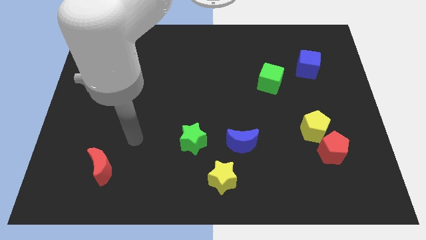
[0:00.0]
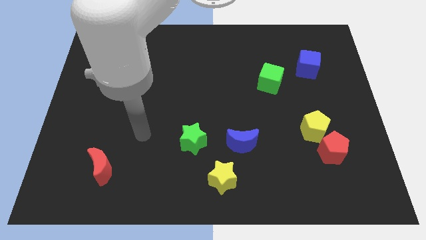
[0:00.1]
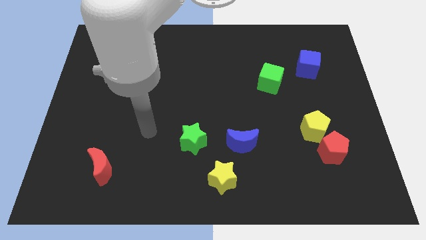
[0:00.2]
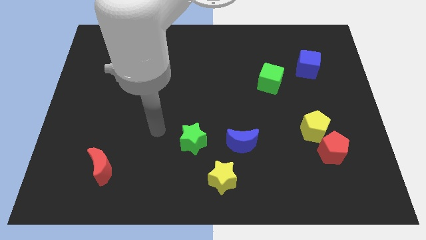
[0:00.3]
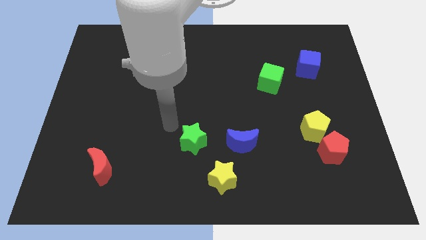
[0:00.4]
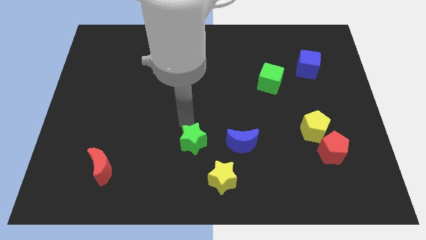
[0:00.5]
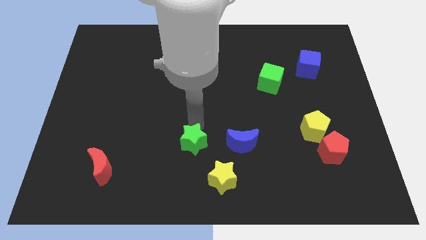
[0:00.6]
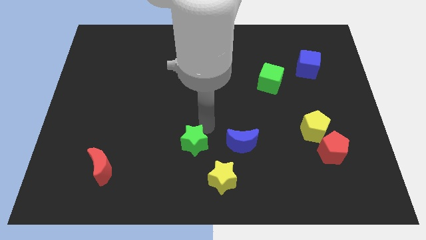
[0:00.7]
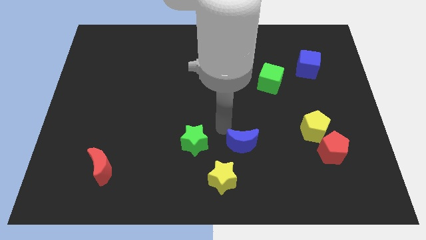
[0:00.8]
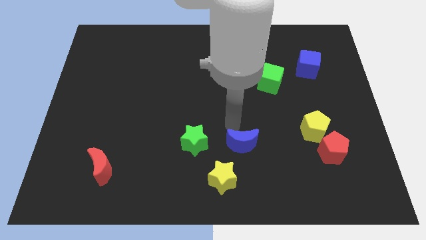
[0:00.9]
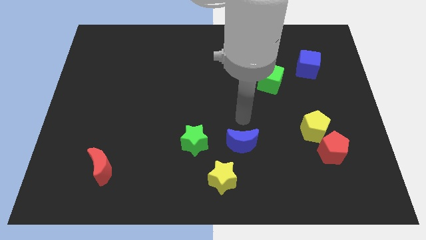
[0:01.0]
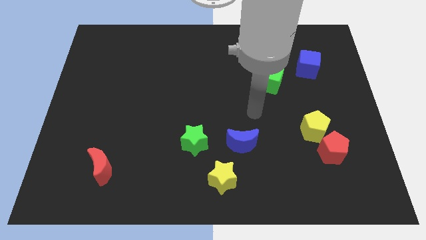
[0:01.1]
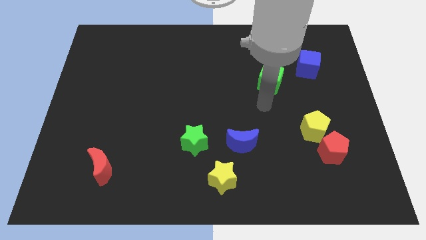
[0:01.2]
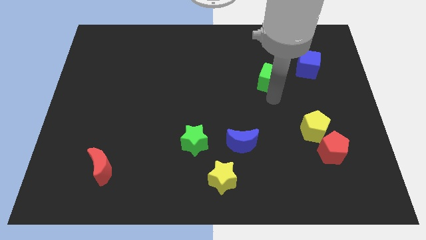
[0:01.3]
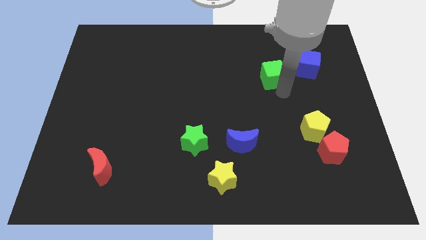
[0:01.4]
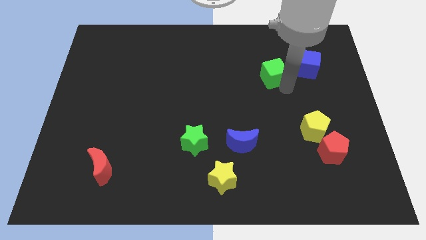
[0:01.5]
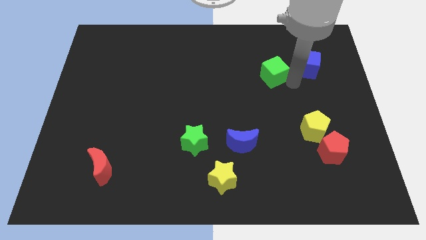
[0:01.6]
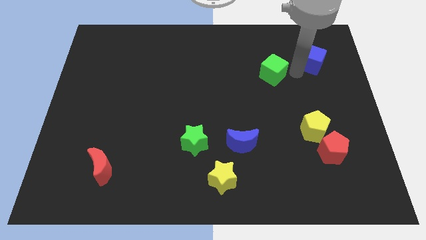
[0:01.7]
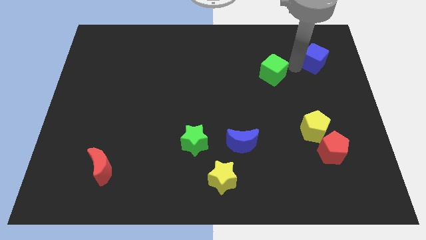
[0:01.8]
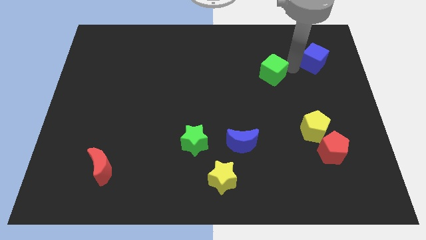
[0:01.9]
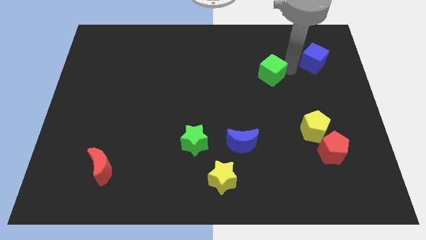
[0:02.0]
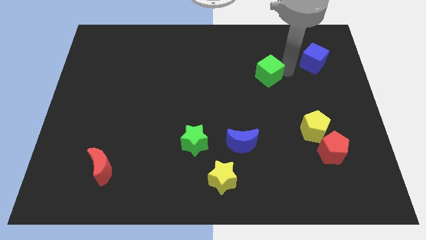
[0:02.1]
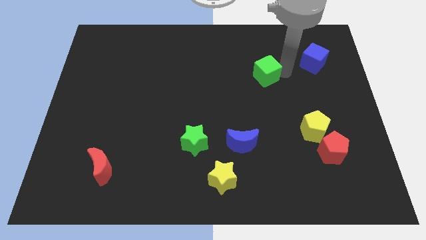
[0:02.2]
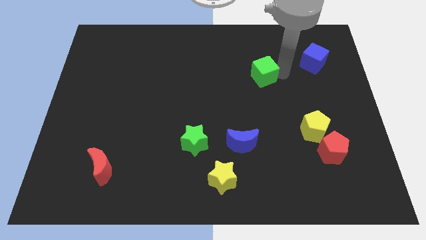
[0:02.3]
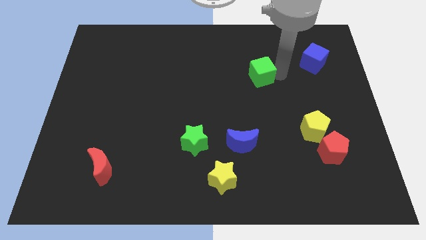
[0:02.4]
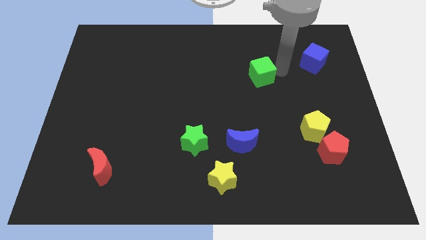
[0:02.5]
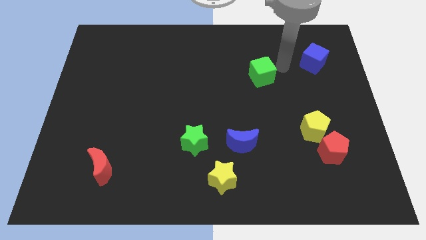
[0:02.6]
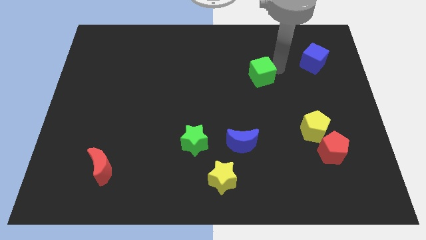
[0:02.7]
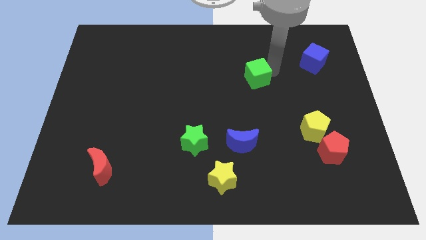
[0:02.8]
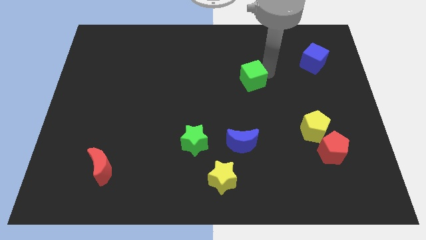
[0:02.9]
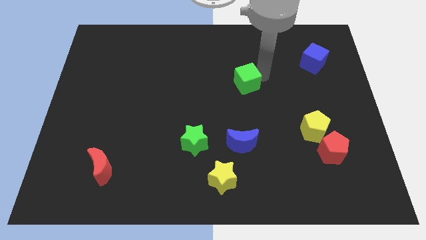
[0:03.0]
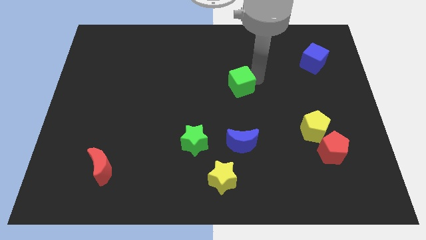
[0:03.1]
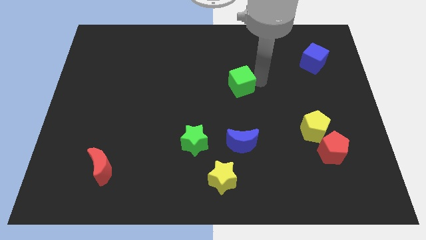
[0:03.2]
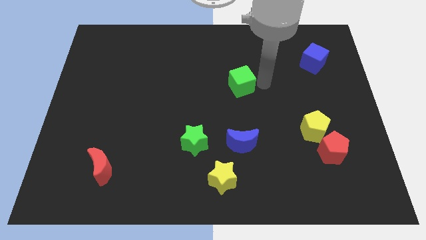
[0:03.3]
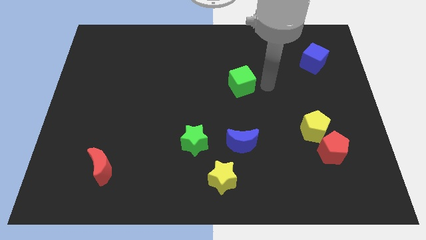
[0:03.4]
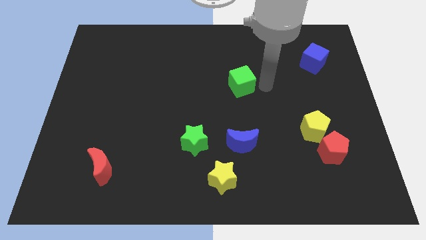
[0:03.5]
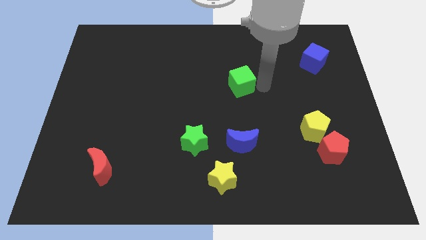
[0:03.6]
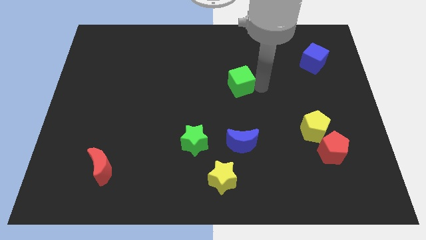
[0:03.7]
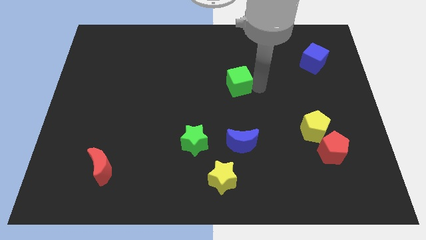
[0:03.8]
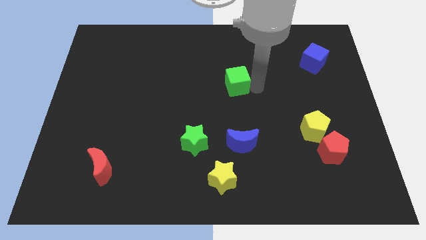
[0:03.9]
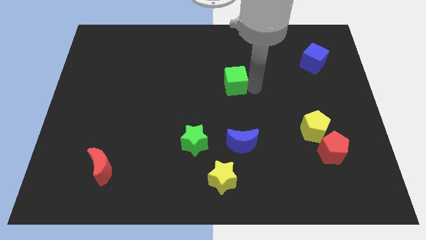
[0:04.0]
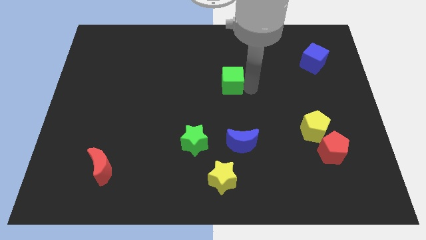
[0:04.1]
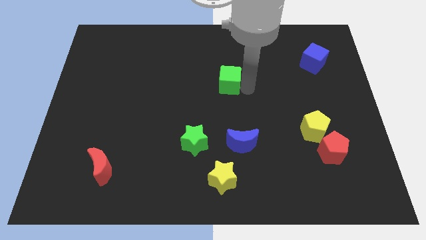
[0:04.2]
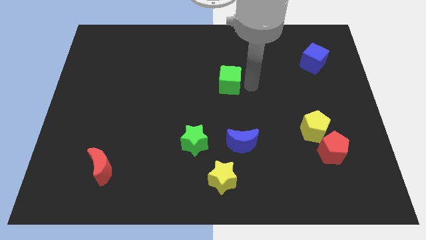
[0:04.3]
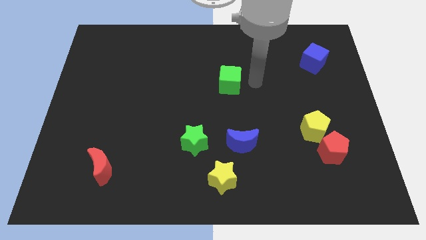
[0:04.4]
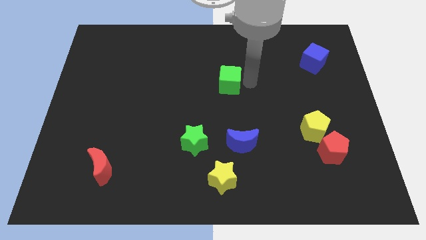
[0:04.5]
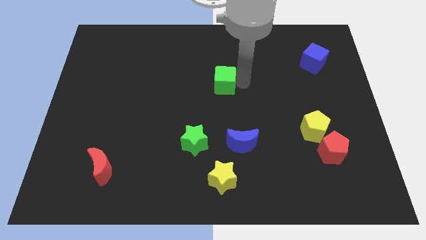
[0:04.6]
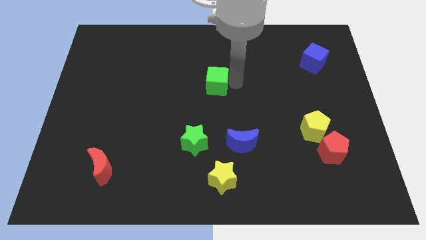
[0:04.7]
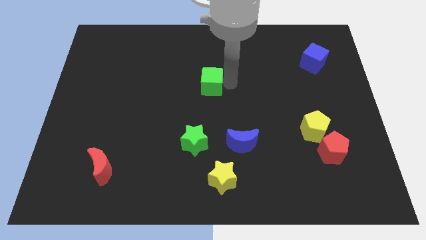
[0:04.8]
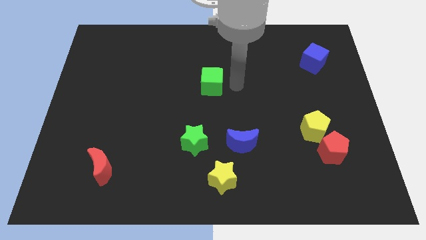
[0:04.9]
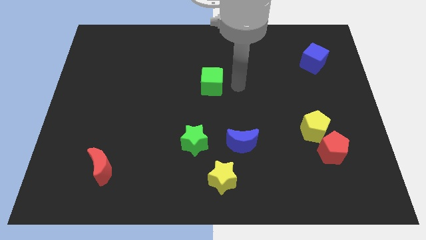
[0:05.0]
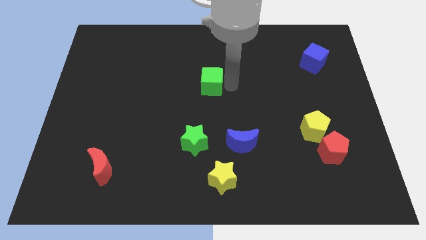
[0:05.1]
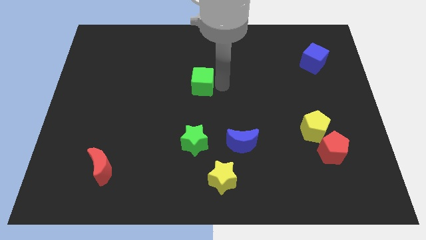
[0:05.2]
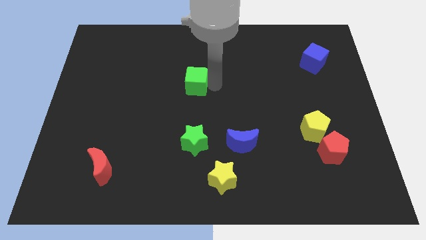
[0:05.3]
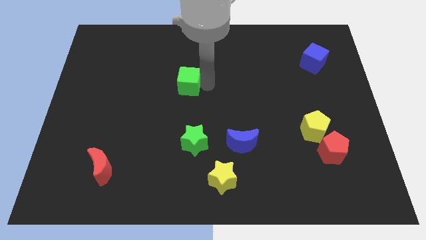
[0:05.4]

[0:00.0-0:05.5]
move the green cube left

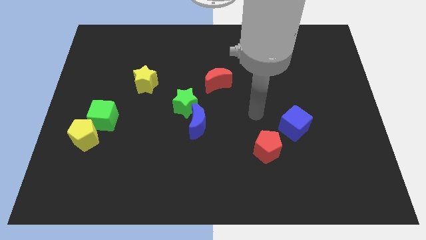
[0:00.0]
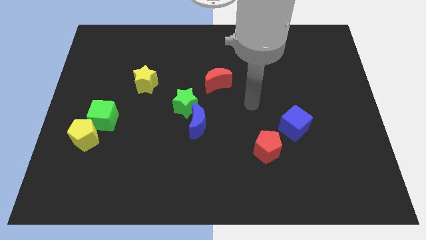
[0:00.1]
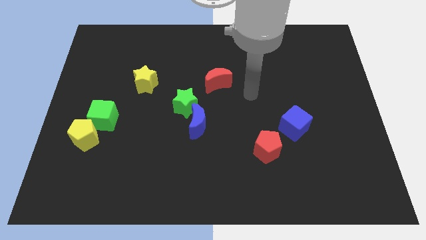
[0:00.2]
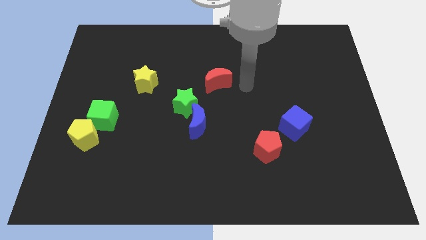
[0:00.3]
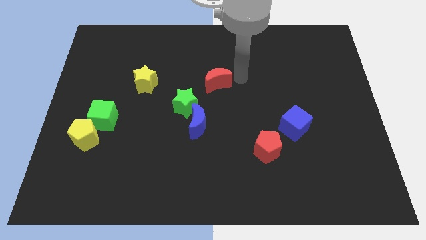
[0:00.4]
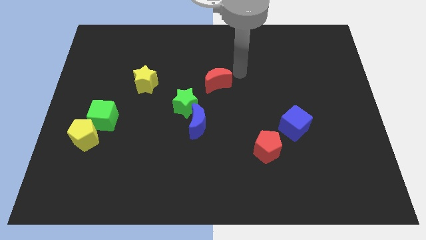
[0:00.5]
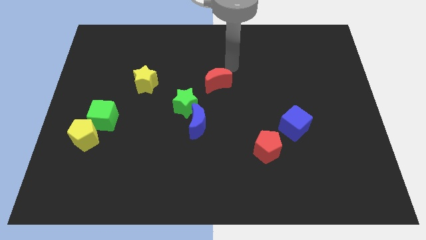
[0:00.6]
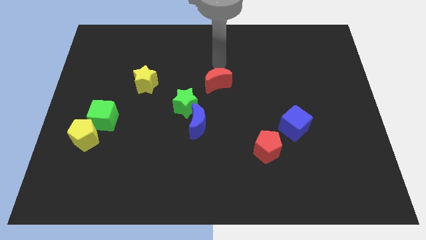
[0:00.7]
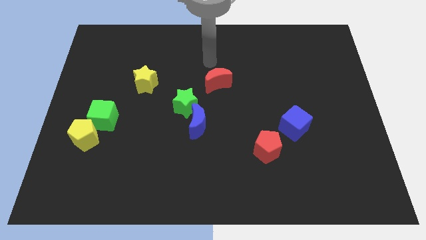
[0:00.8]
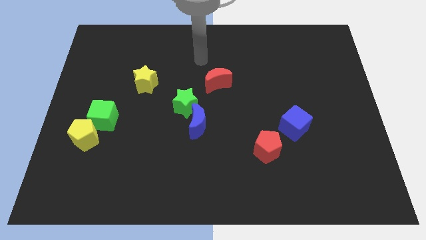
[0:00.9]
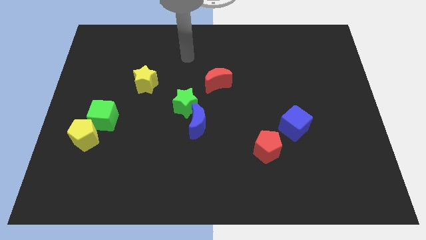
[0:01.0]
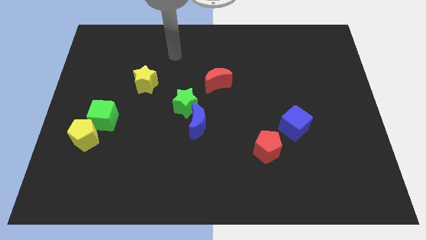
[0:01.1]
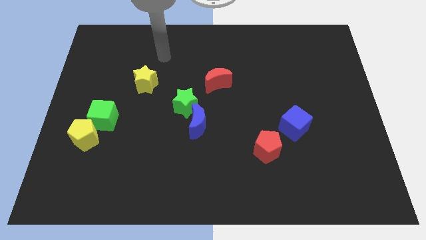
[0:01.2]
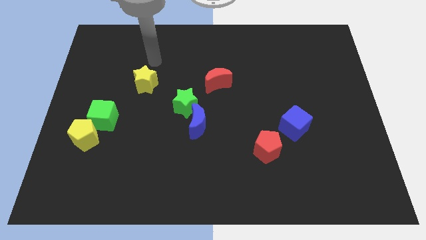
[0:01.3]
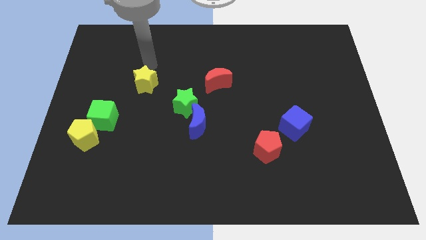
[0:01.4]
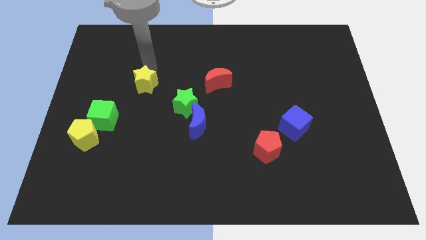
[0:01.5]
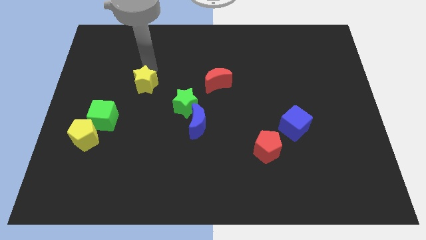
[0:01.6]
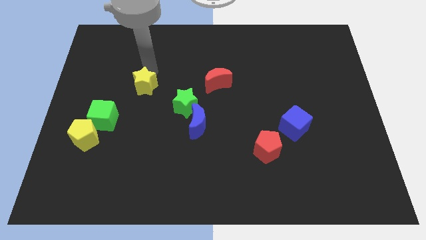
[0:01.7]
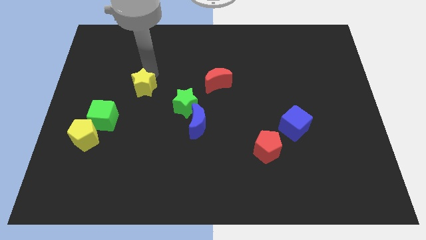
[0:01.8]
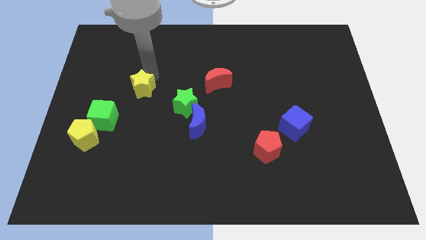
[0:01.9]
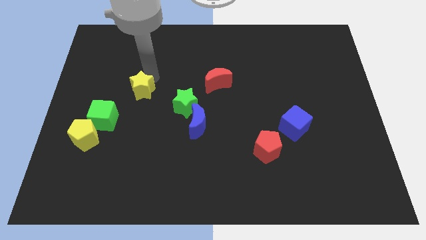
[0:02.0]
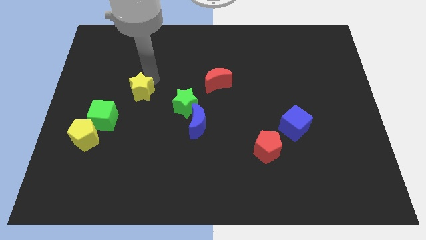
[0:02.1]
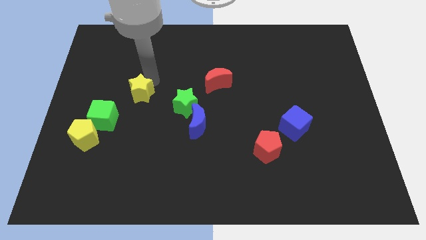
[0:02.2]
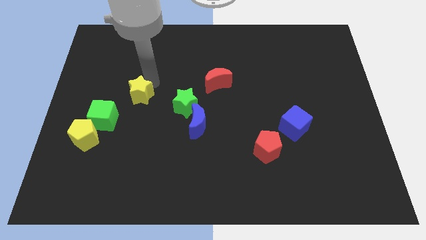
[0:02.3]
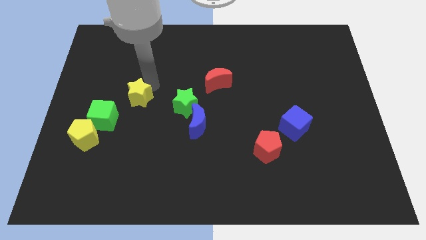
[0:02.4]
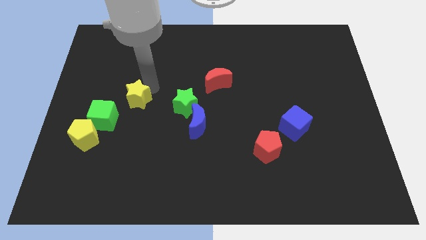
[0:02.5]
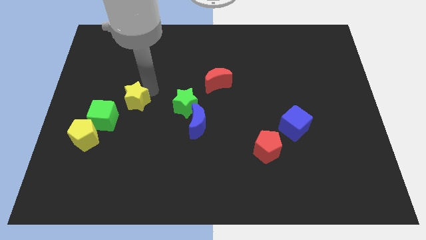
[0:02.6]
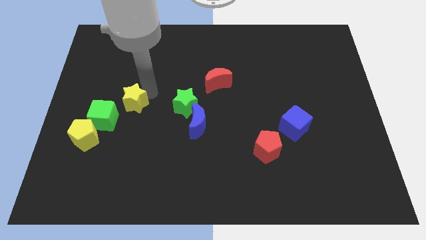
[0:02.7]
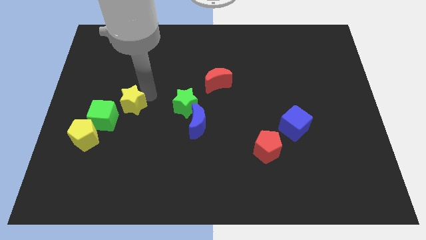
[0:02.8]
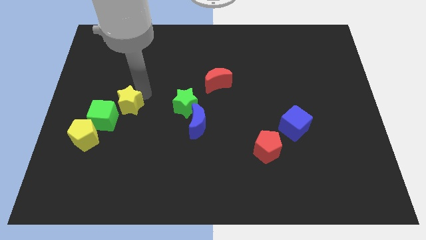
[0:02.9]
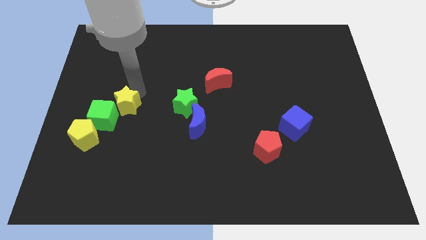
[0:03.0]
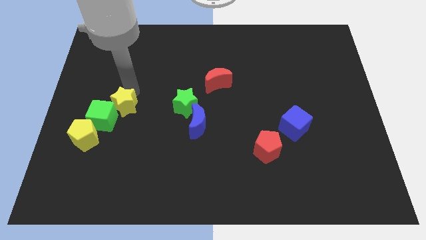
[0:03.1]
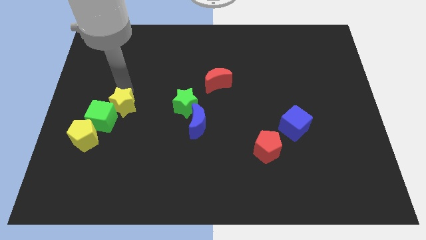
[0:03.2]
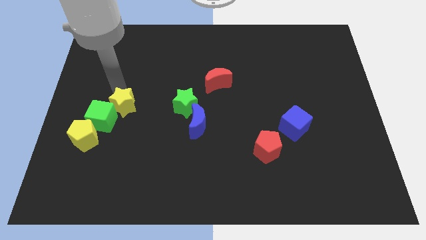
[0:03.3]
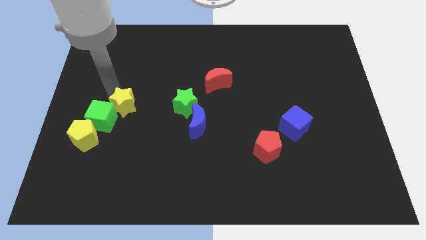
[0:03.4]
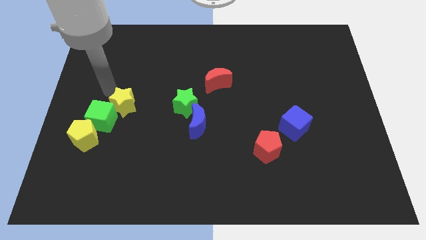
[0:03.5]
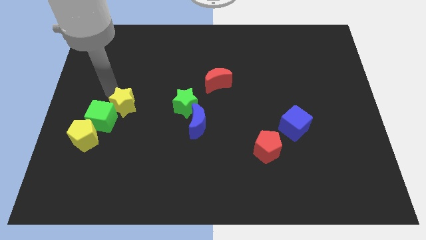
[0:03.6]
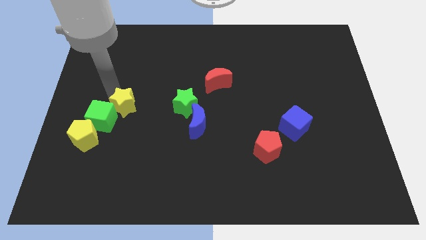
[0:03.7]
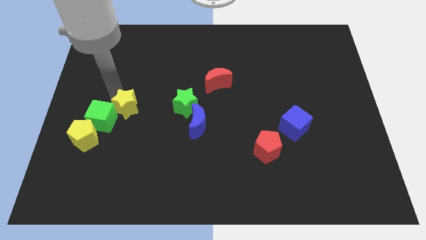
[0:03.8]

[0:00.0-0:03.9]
move the yellow star down somewhat
